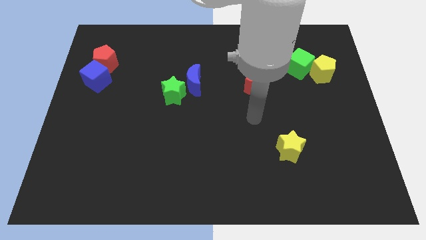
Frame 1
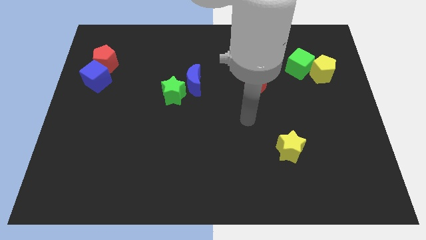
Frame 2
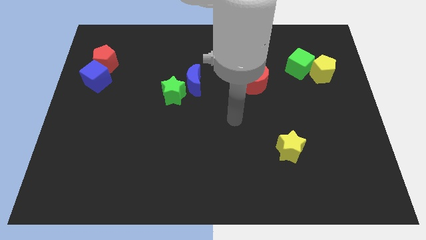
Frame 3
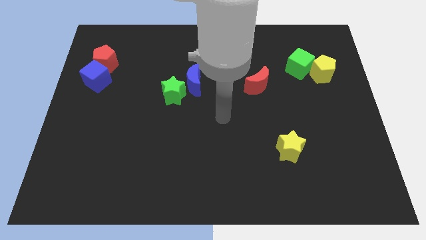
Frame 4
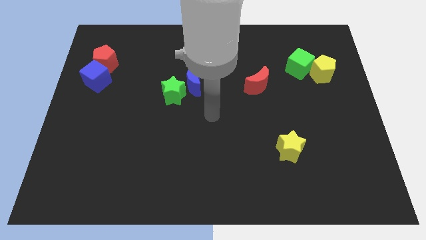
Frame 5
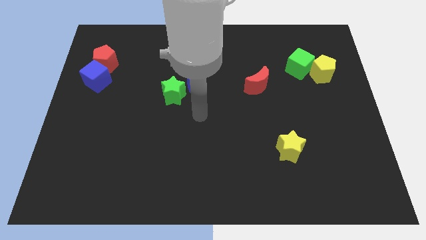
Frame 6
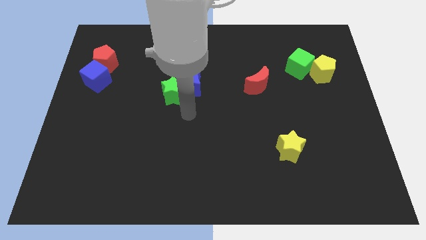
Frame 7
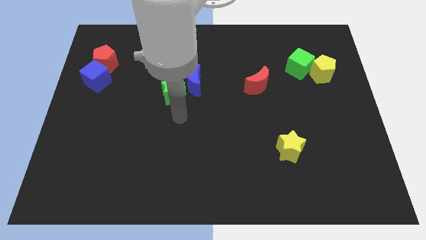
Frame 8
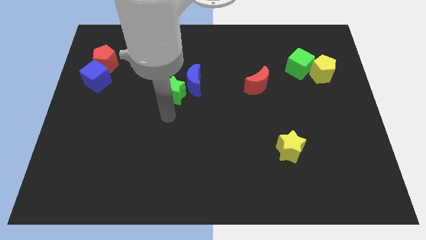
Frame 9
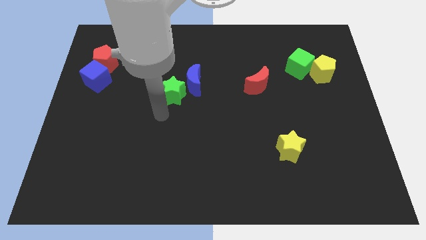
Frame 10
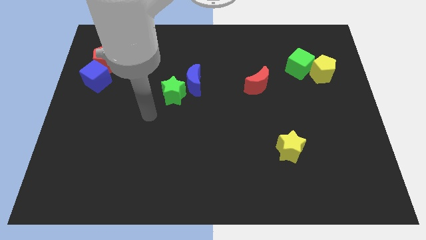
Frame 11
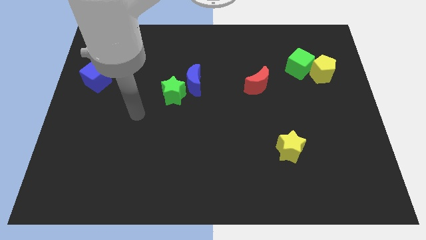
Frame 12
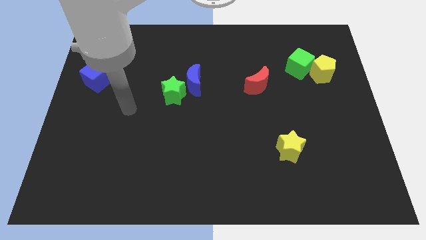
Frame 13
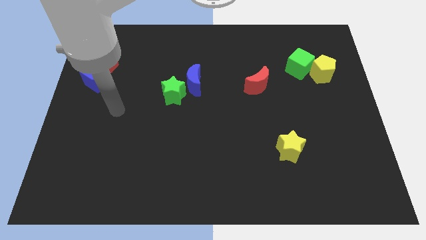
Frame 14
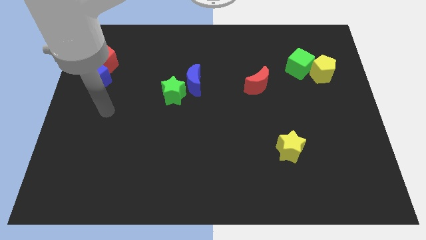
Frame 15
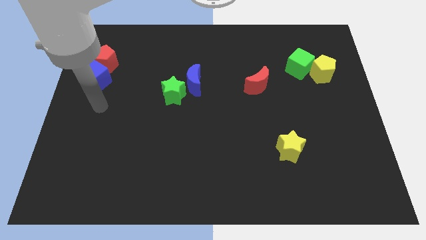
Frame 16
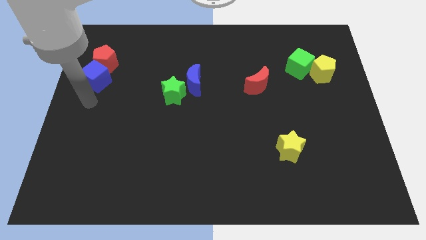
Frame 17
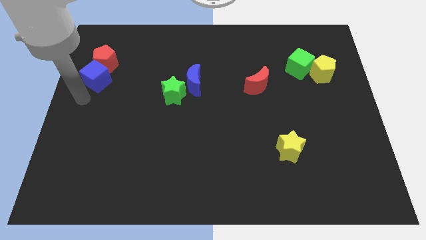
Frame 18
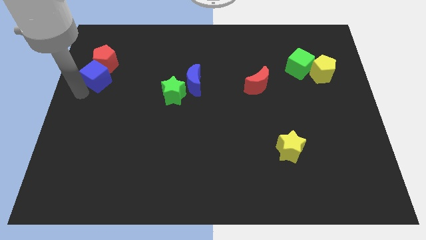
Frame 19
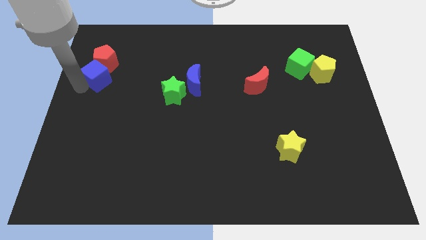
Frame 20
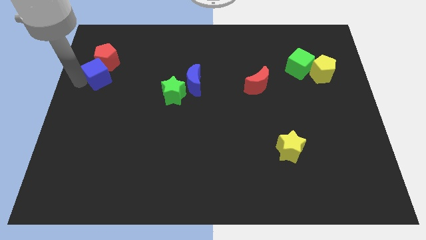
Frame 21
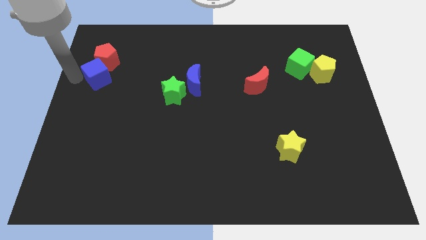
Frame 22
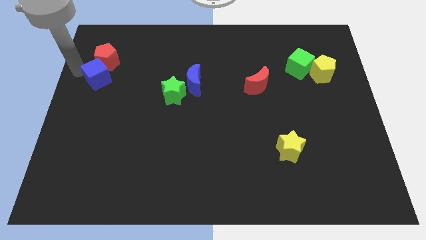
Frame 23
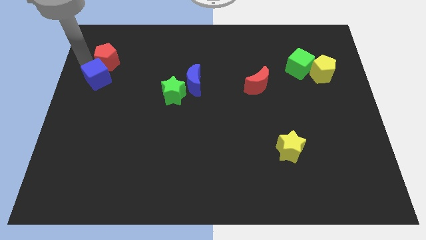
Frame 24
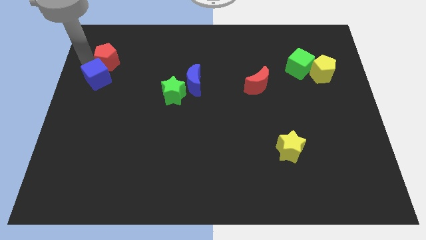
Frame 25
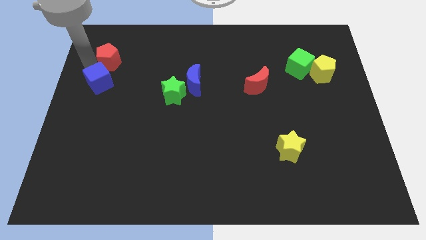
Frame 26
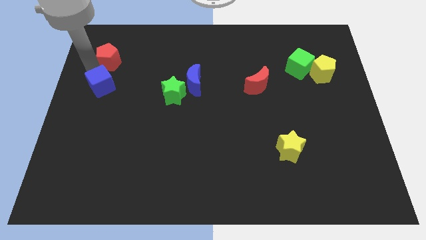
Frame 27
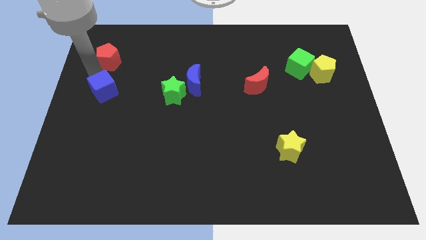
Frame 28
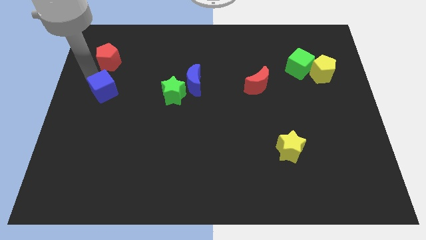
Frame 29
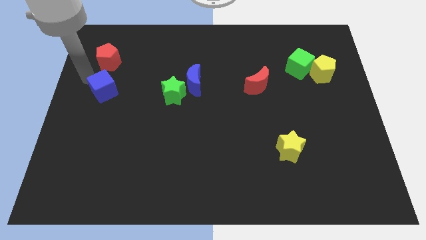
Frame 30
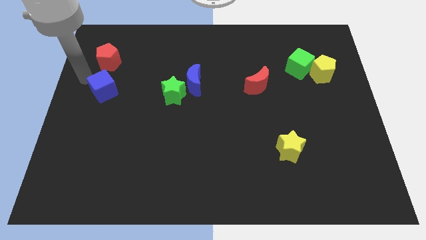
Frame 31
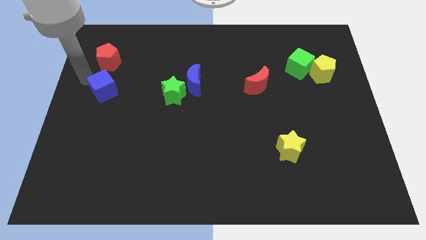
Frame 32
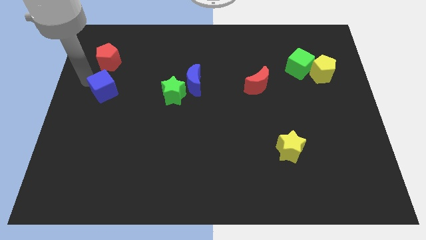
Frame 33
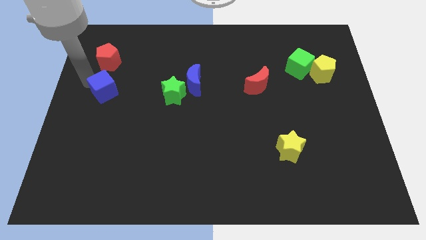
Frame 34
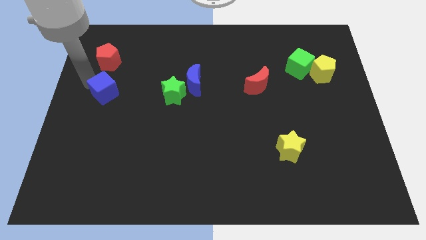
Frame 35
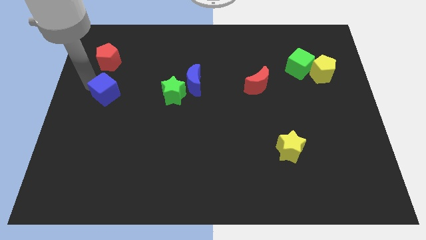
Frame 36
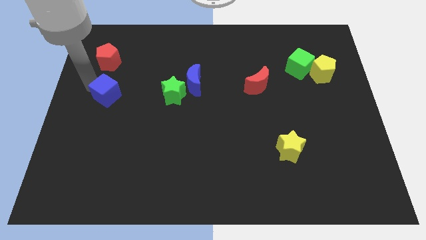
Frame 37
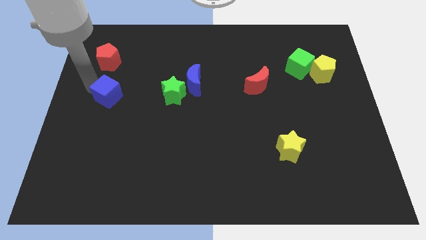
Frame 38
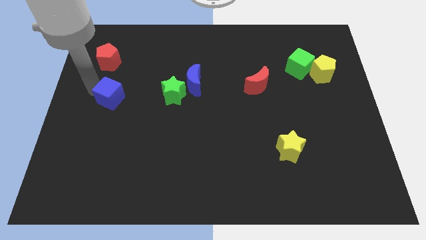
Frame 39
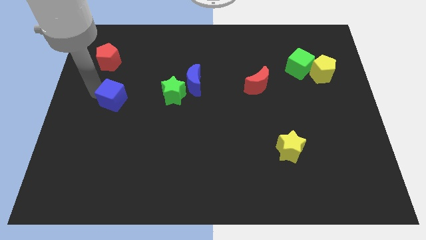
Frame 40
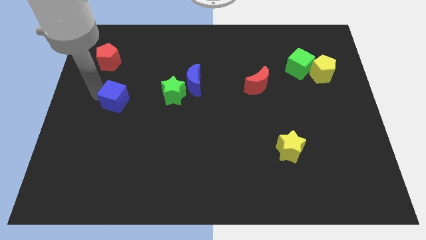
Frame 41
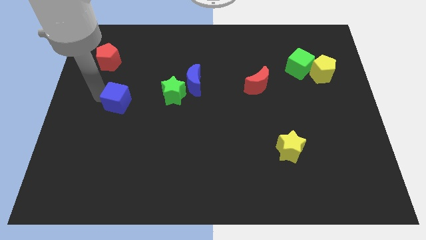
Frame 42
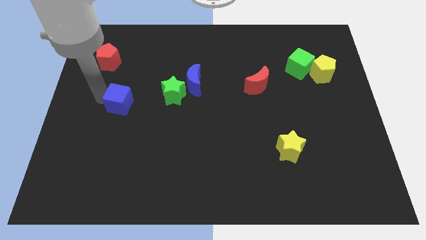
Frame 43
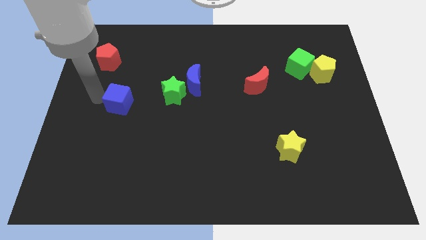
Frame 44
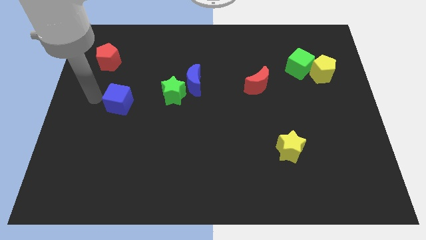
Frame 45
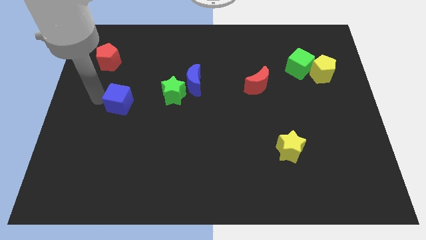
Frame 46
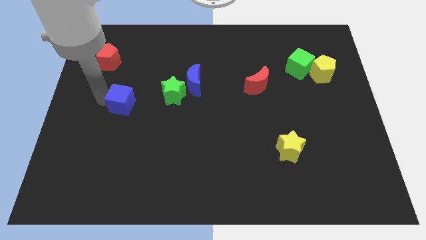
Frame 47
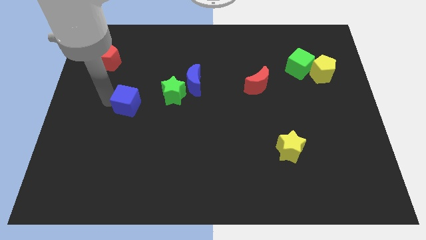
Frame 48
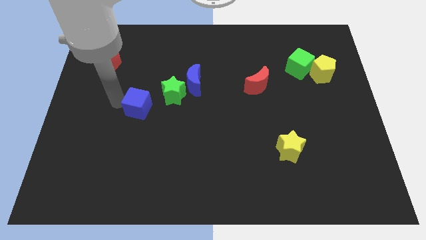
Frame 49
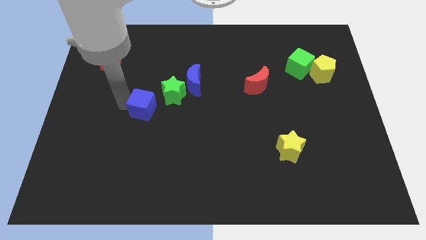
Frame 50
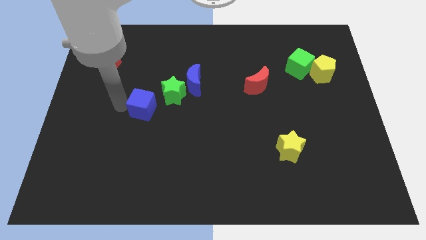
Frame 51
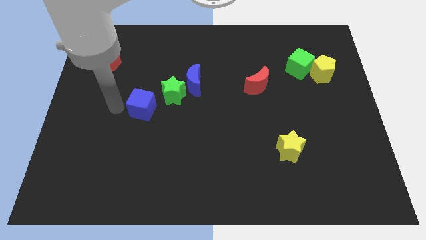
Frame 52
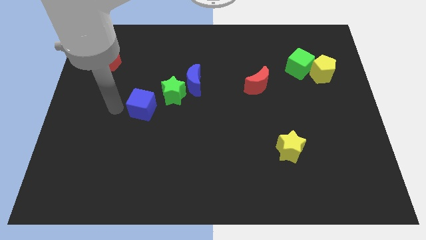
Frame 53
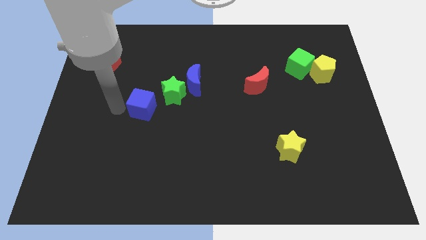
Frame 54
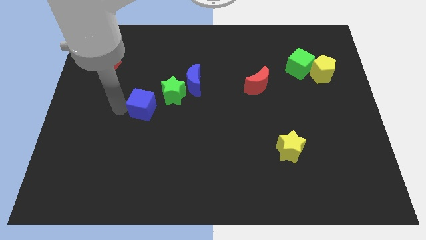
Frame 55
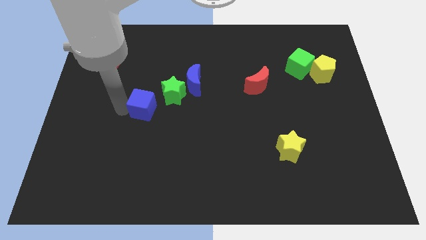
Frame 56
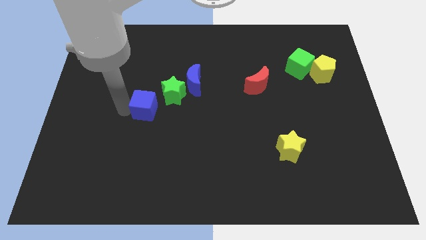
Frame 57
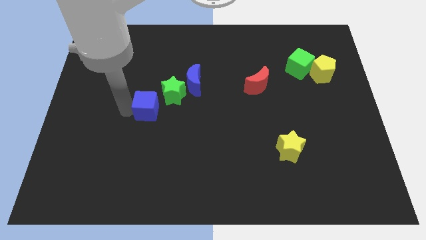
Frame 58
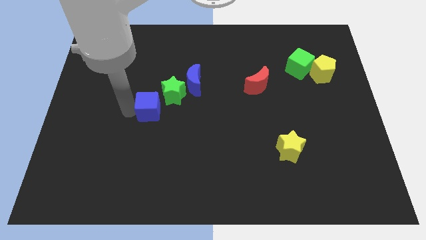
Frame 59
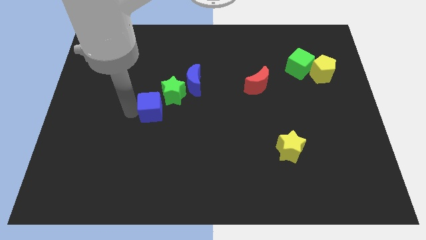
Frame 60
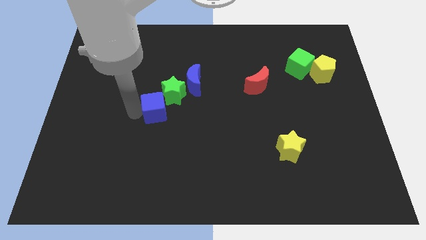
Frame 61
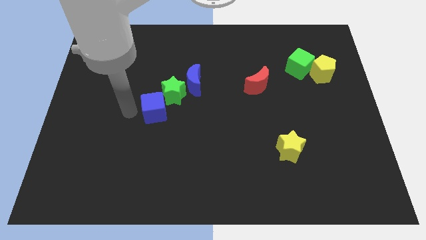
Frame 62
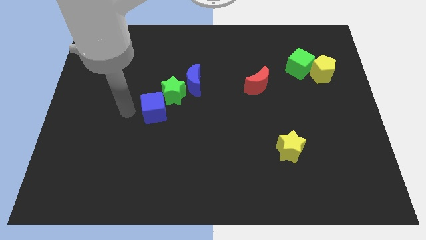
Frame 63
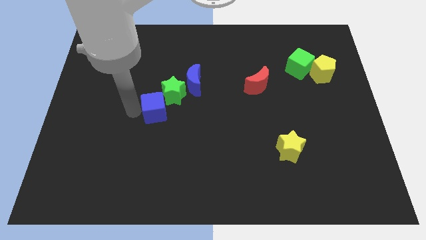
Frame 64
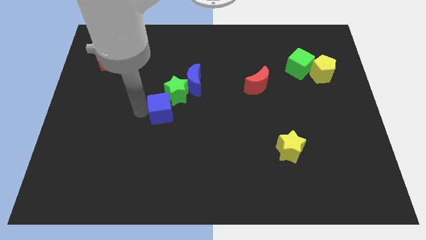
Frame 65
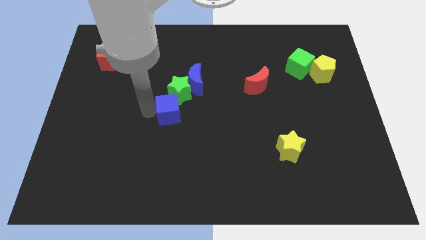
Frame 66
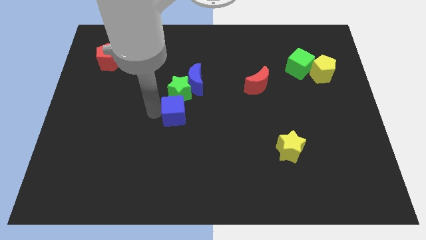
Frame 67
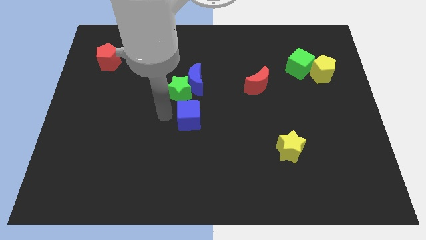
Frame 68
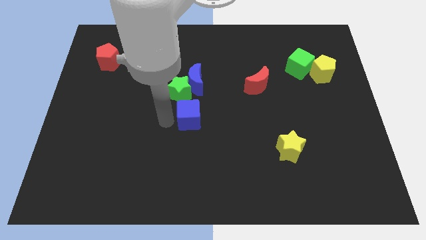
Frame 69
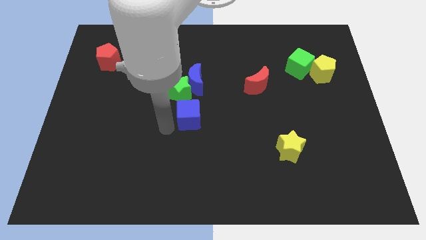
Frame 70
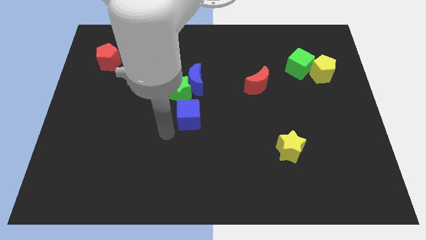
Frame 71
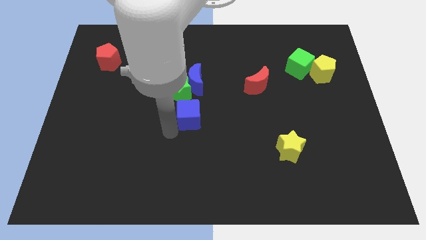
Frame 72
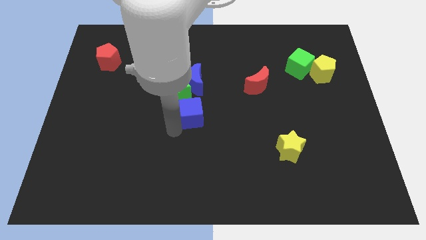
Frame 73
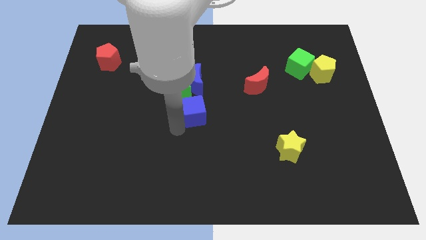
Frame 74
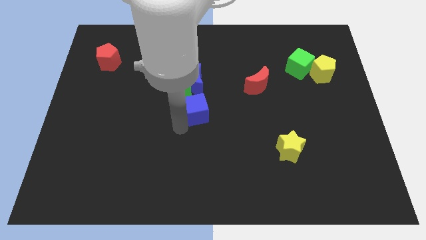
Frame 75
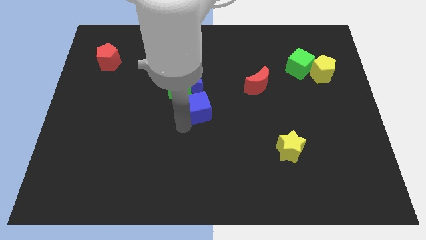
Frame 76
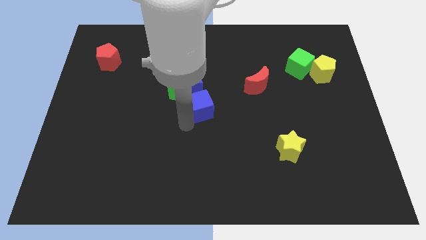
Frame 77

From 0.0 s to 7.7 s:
slide the blue cube to the bottom right of the blue moon
